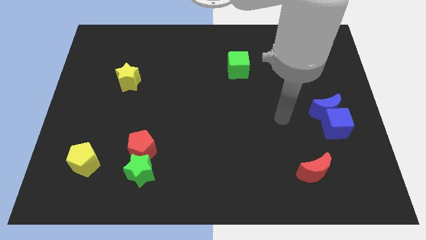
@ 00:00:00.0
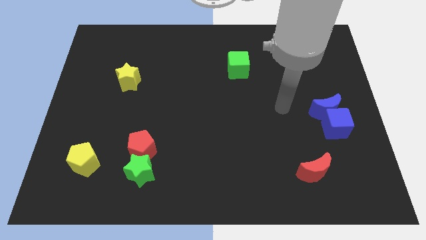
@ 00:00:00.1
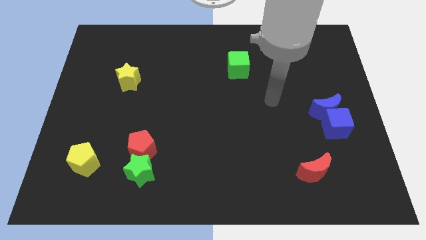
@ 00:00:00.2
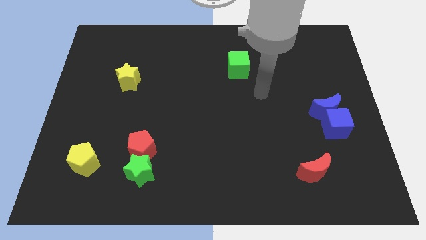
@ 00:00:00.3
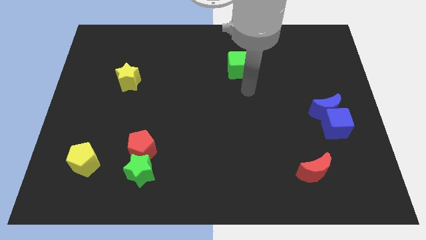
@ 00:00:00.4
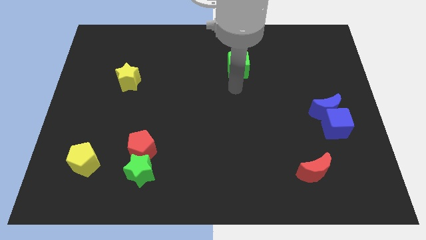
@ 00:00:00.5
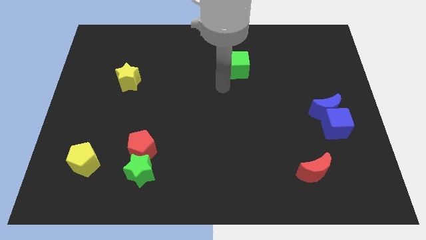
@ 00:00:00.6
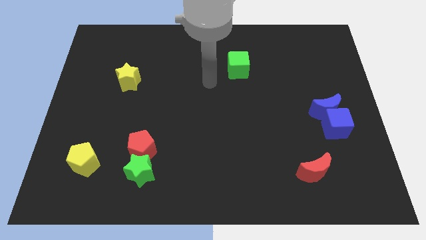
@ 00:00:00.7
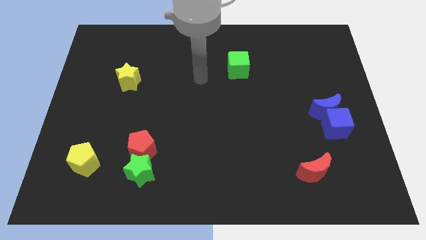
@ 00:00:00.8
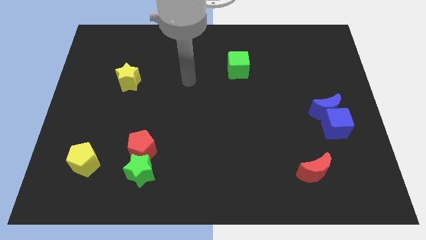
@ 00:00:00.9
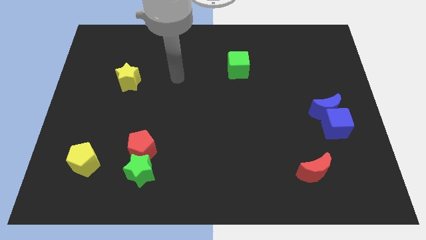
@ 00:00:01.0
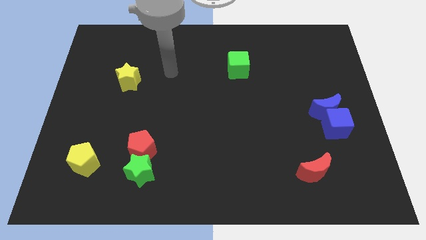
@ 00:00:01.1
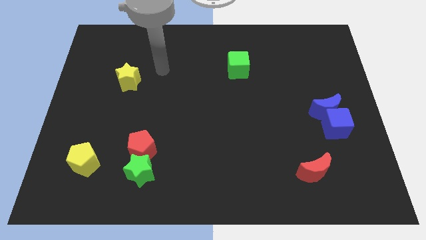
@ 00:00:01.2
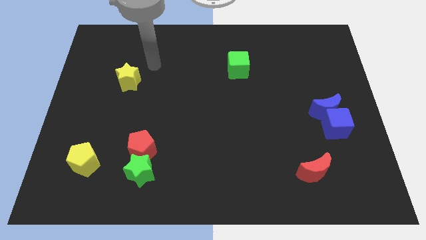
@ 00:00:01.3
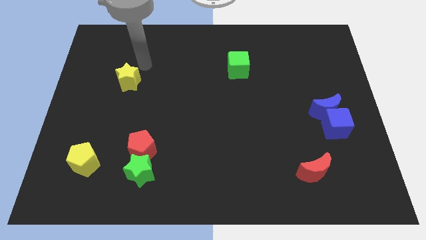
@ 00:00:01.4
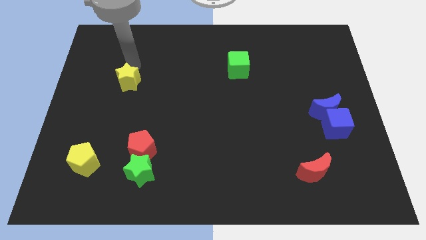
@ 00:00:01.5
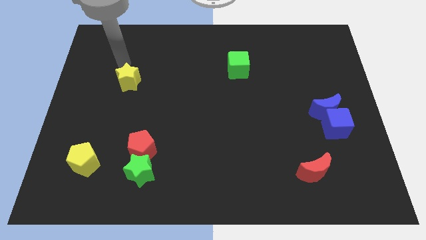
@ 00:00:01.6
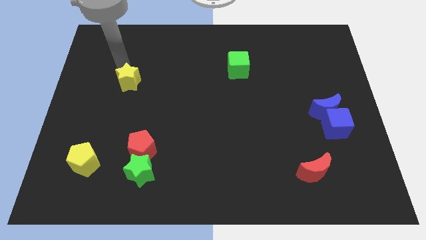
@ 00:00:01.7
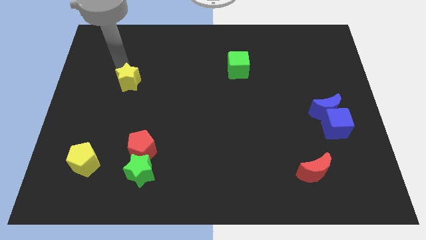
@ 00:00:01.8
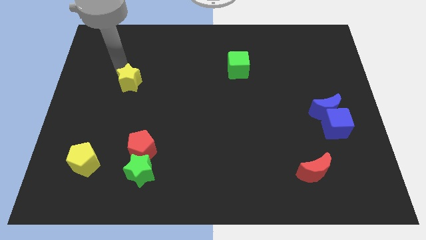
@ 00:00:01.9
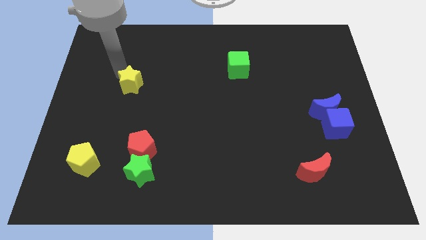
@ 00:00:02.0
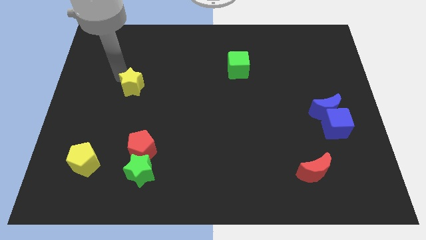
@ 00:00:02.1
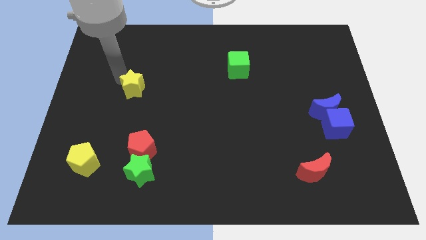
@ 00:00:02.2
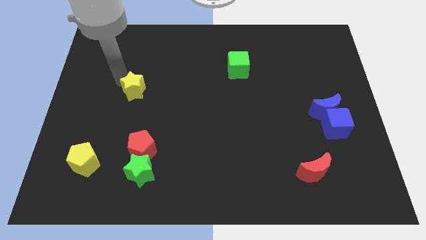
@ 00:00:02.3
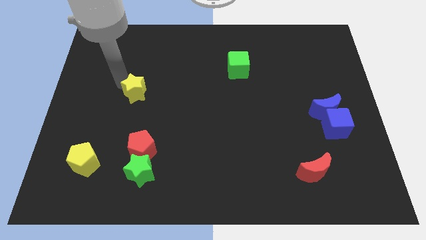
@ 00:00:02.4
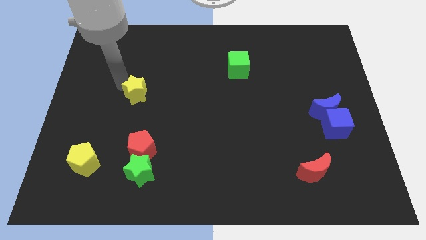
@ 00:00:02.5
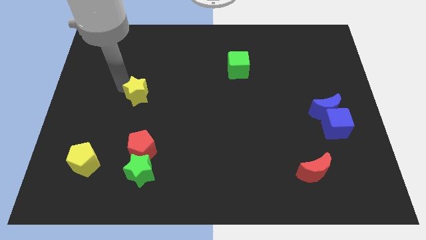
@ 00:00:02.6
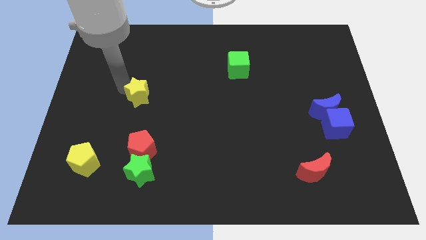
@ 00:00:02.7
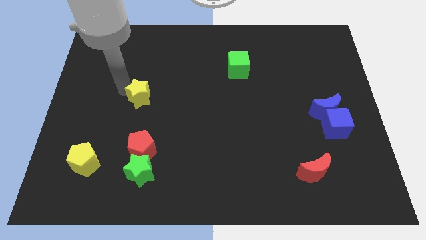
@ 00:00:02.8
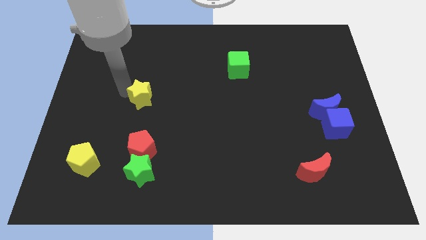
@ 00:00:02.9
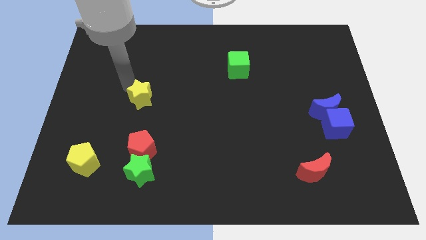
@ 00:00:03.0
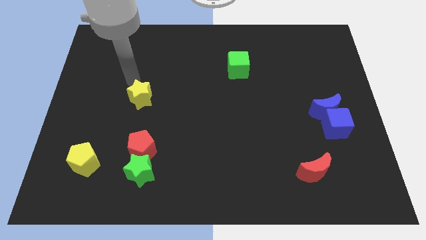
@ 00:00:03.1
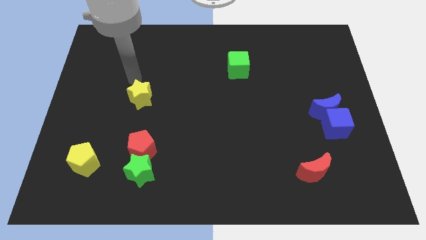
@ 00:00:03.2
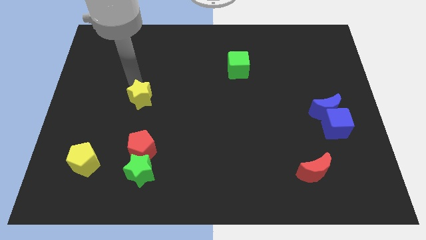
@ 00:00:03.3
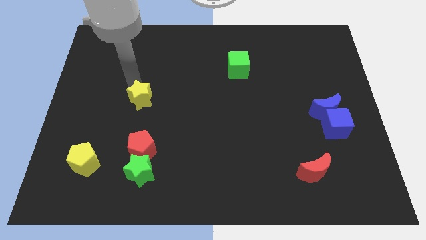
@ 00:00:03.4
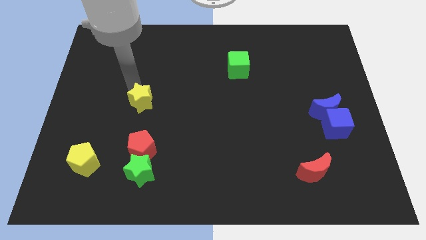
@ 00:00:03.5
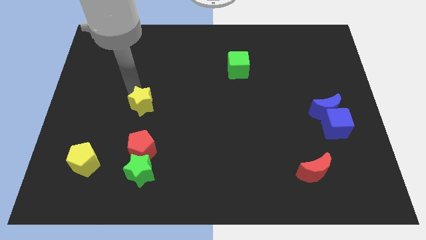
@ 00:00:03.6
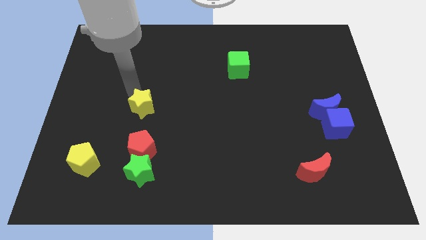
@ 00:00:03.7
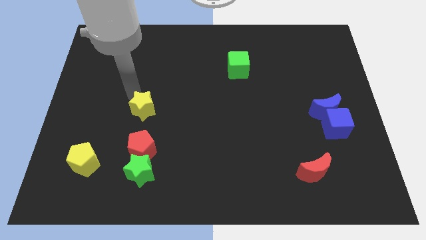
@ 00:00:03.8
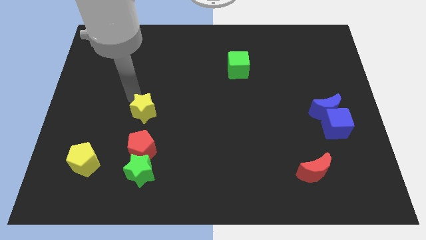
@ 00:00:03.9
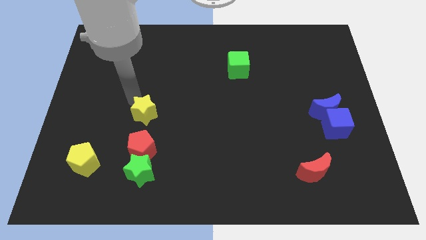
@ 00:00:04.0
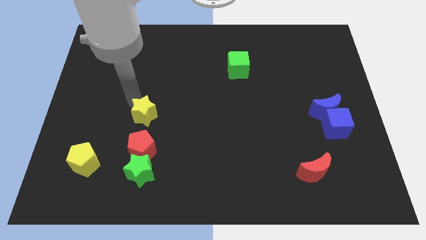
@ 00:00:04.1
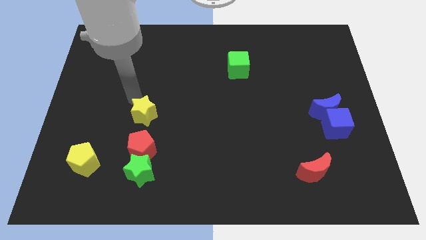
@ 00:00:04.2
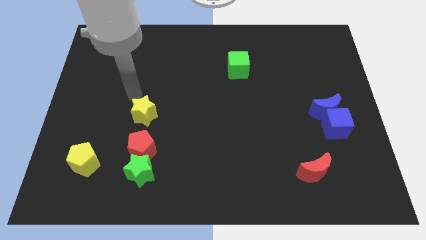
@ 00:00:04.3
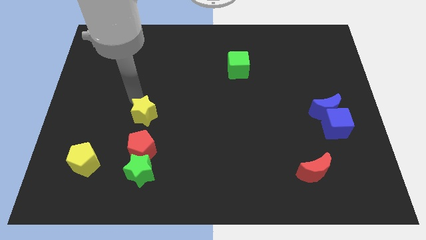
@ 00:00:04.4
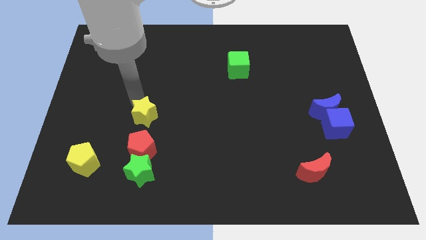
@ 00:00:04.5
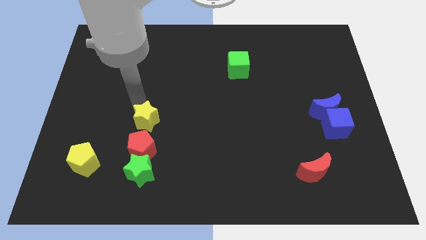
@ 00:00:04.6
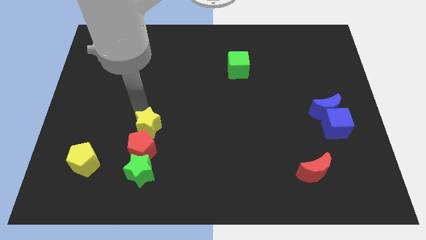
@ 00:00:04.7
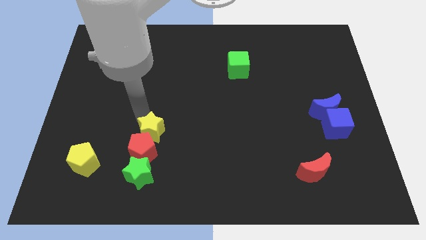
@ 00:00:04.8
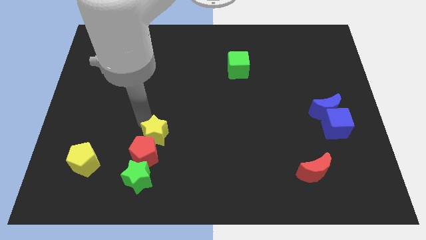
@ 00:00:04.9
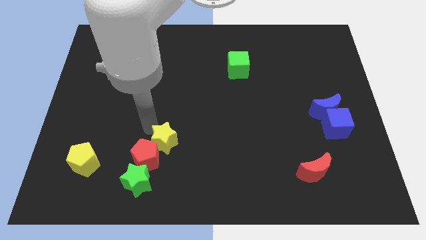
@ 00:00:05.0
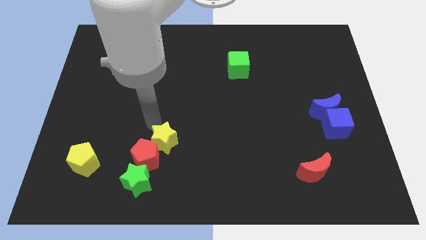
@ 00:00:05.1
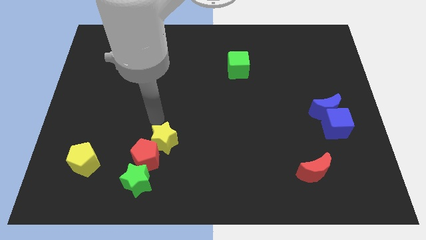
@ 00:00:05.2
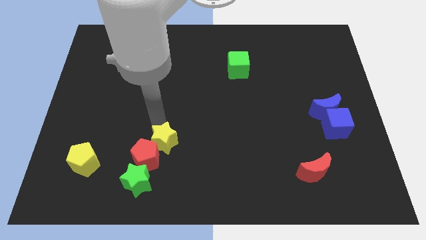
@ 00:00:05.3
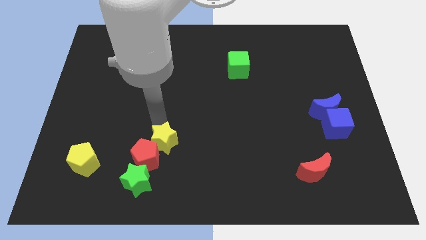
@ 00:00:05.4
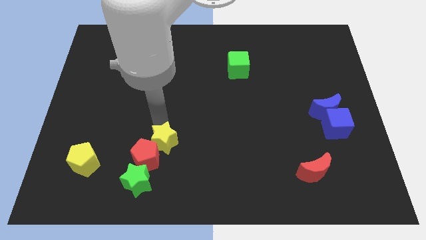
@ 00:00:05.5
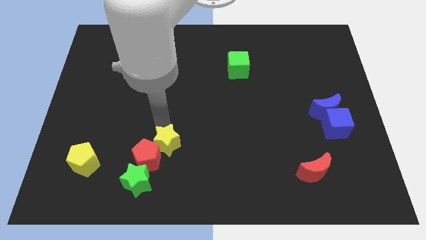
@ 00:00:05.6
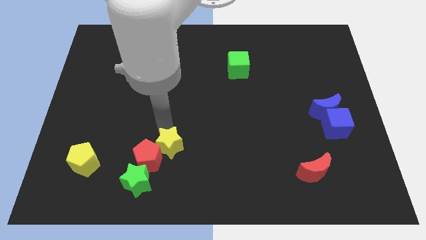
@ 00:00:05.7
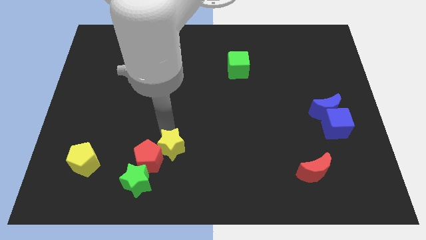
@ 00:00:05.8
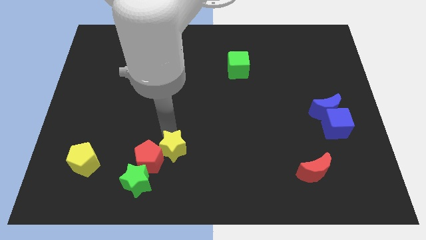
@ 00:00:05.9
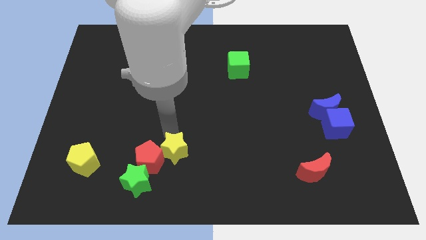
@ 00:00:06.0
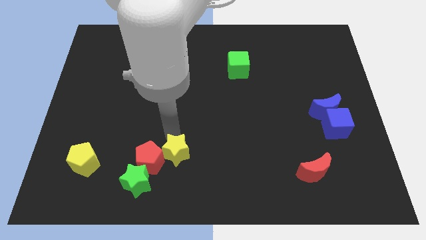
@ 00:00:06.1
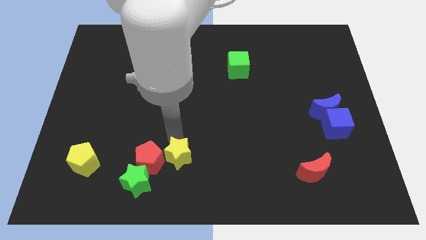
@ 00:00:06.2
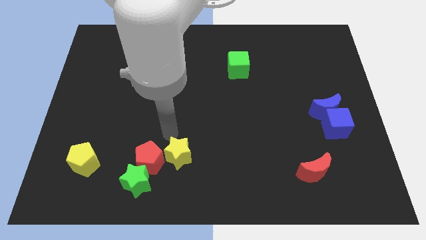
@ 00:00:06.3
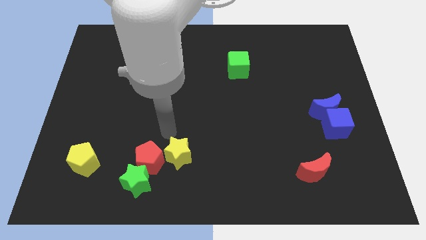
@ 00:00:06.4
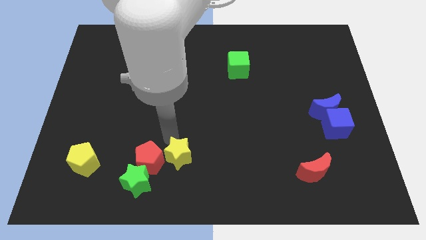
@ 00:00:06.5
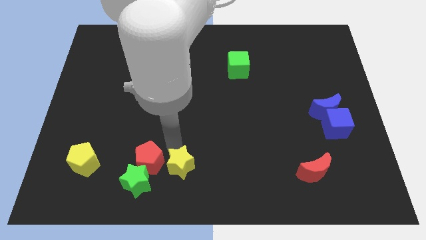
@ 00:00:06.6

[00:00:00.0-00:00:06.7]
push the yellow star to the bottom side
